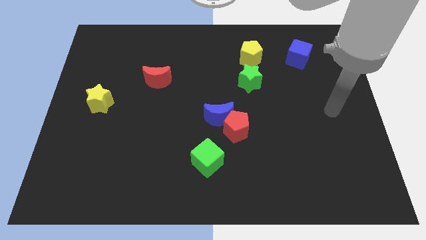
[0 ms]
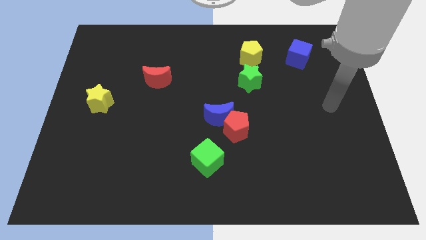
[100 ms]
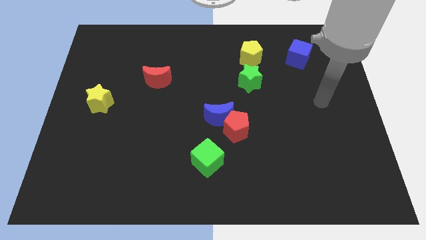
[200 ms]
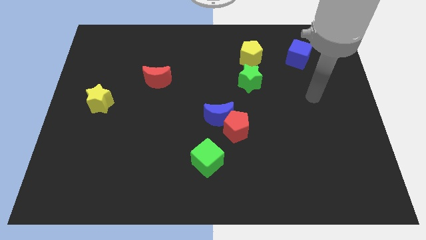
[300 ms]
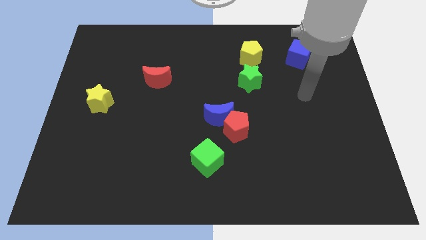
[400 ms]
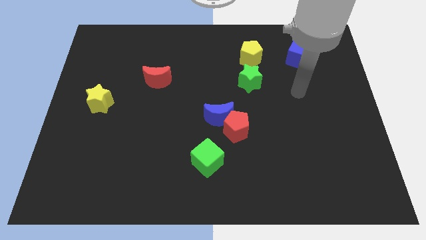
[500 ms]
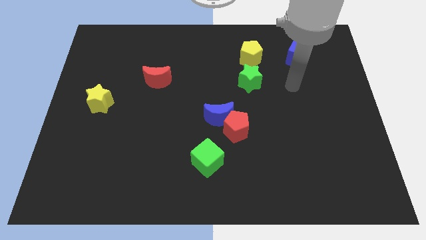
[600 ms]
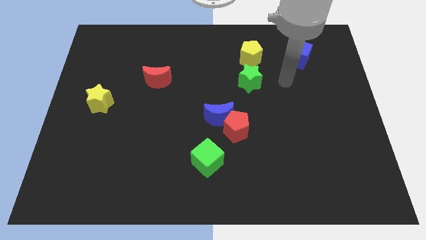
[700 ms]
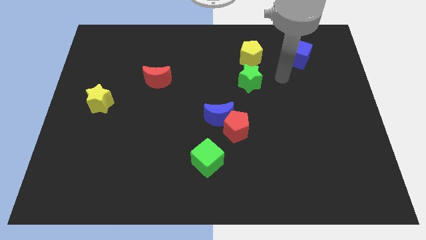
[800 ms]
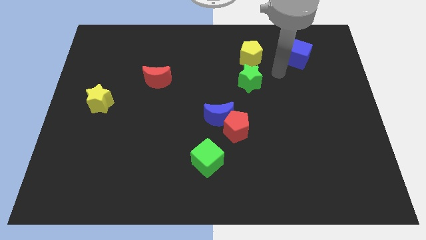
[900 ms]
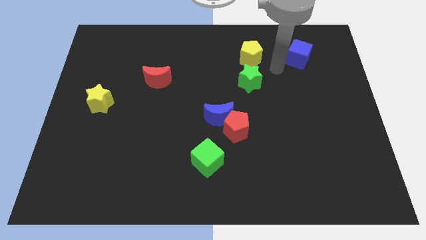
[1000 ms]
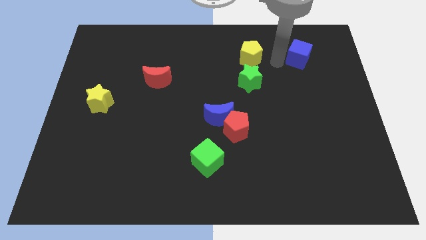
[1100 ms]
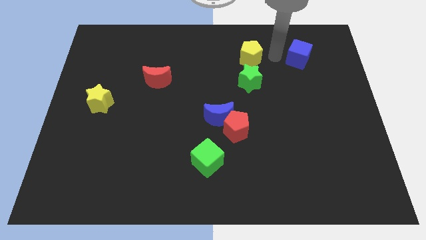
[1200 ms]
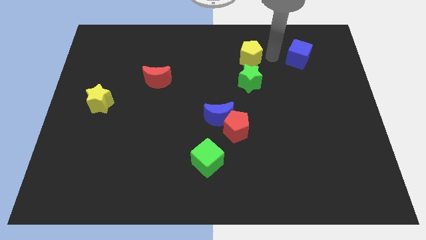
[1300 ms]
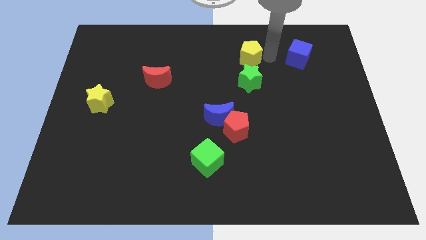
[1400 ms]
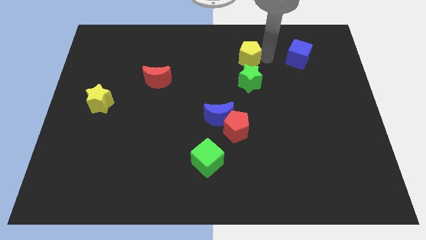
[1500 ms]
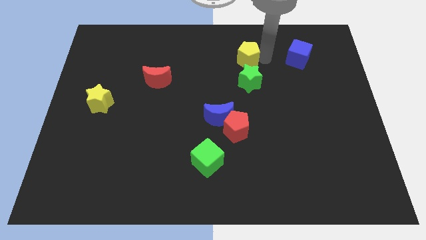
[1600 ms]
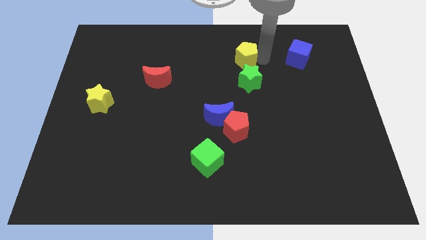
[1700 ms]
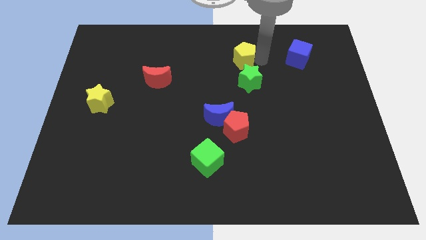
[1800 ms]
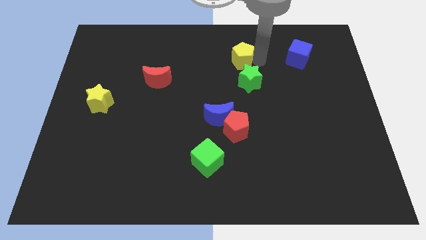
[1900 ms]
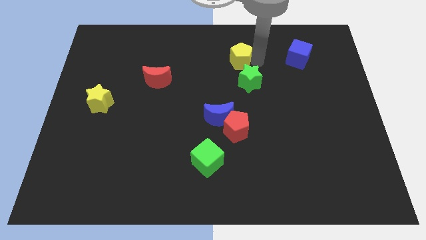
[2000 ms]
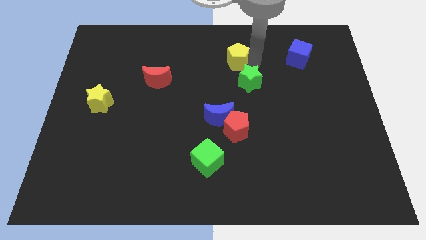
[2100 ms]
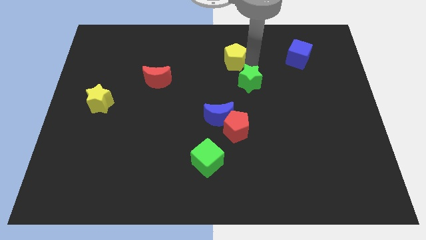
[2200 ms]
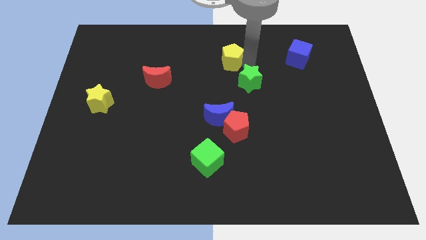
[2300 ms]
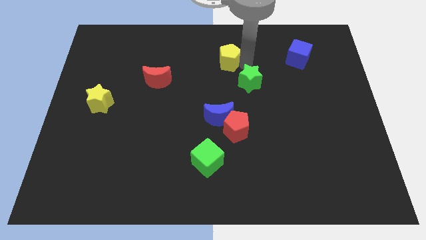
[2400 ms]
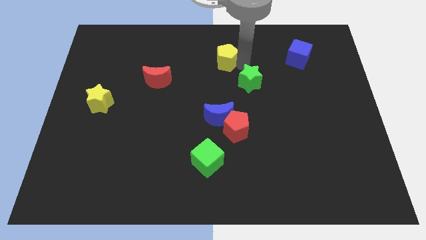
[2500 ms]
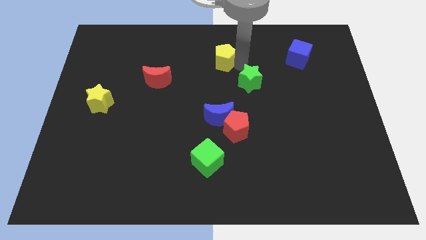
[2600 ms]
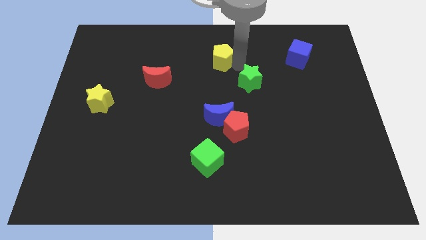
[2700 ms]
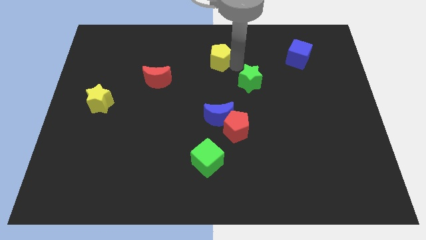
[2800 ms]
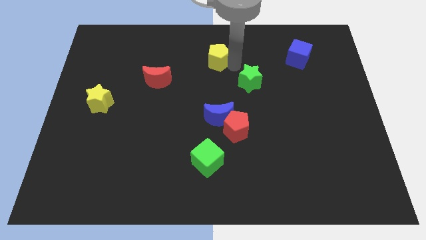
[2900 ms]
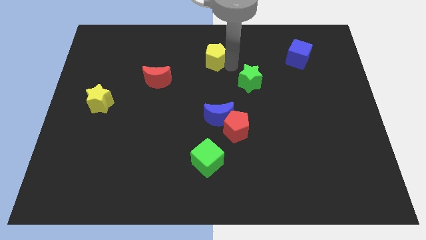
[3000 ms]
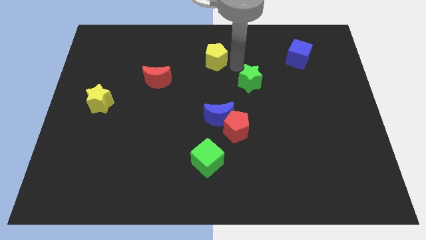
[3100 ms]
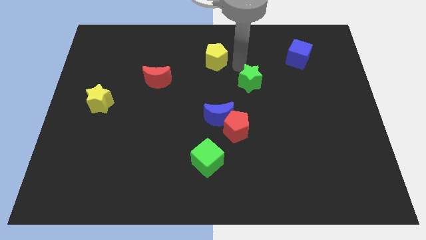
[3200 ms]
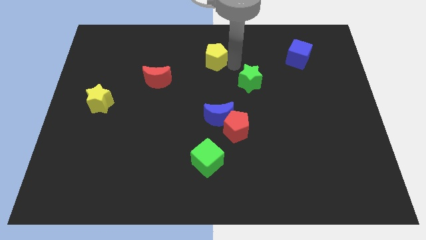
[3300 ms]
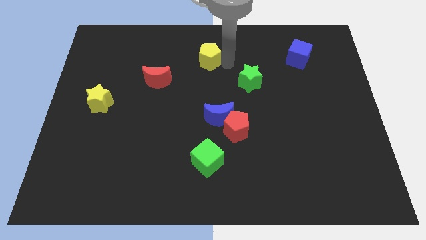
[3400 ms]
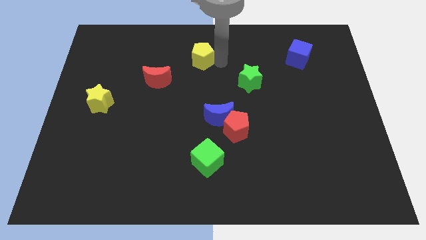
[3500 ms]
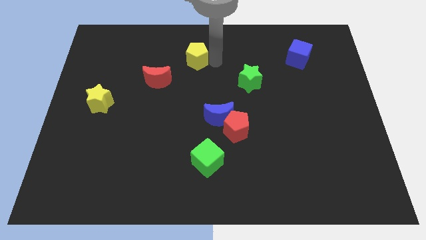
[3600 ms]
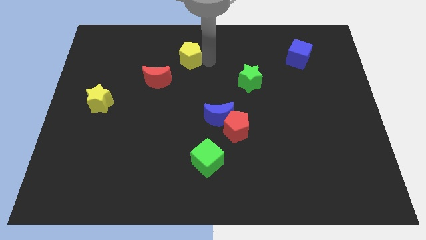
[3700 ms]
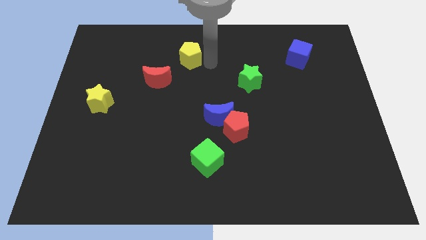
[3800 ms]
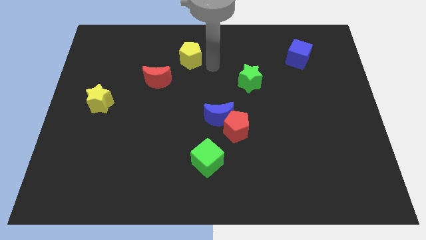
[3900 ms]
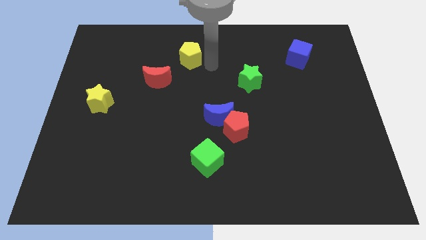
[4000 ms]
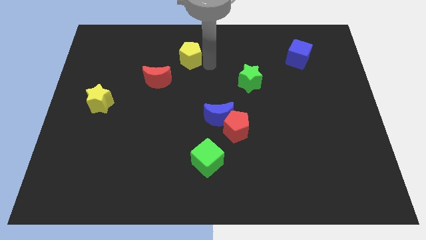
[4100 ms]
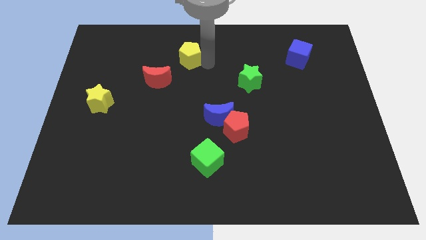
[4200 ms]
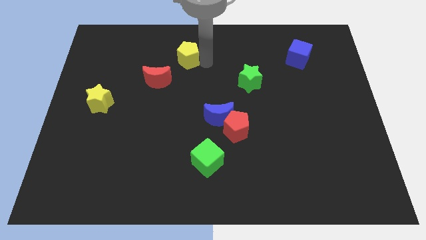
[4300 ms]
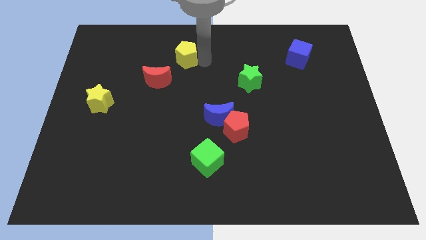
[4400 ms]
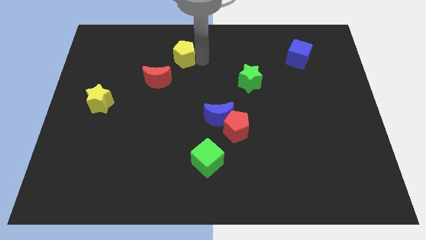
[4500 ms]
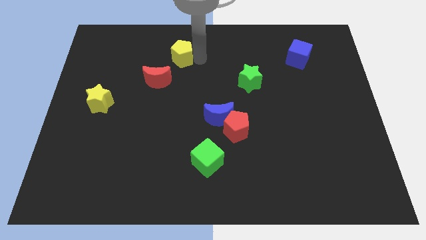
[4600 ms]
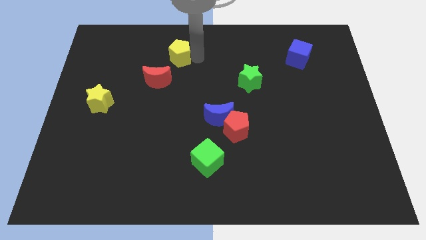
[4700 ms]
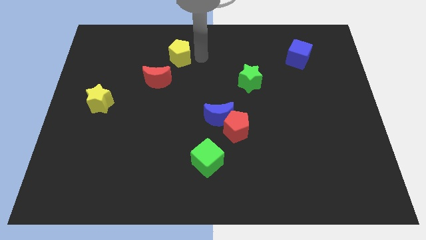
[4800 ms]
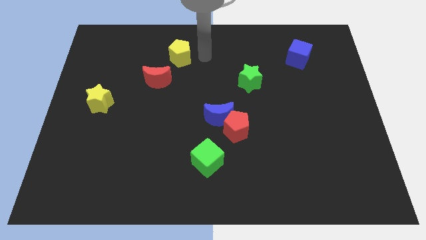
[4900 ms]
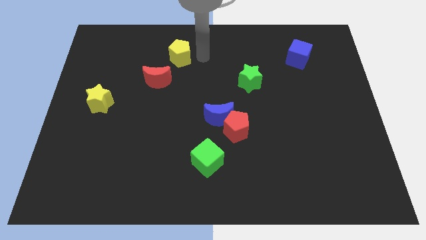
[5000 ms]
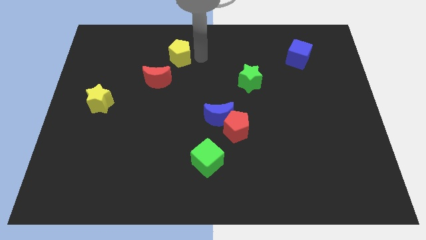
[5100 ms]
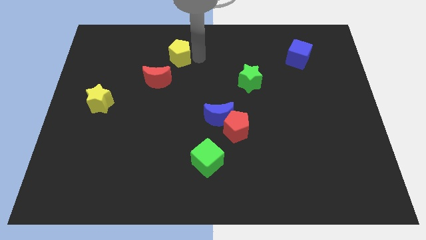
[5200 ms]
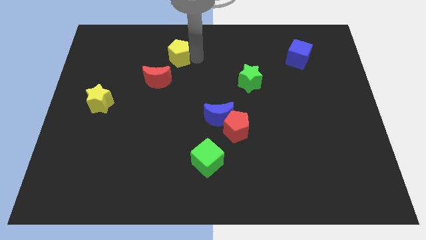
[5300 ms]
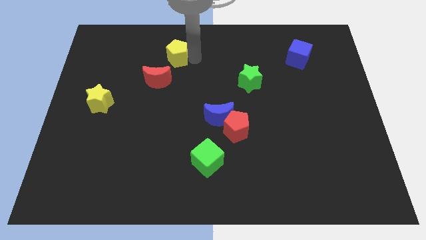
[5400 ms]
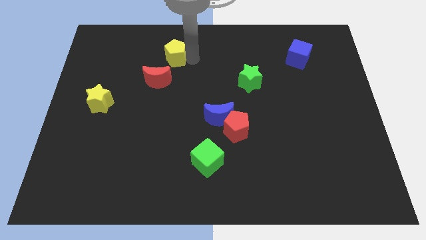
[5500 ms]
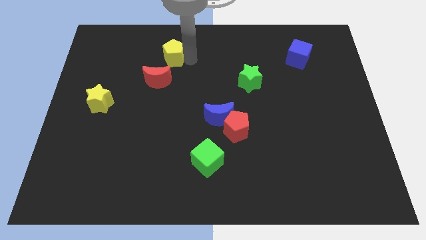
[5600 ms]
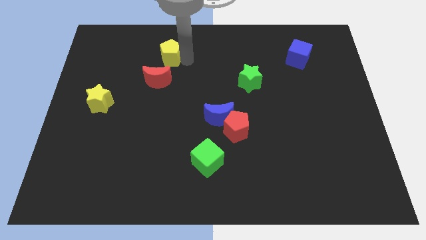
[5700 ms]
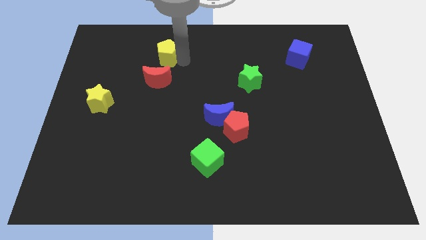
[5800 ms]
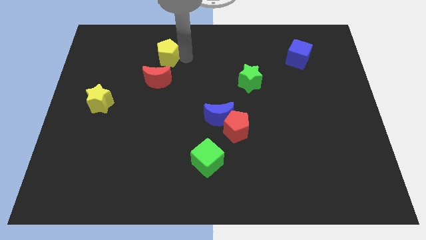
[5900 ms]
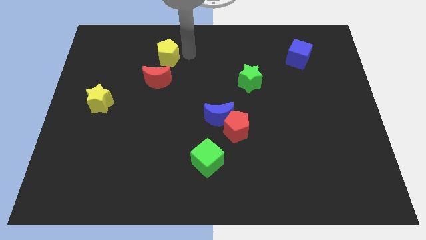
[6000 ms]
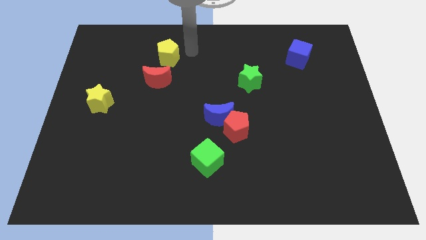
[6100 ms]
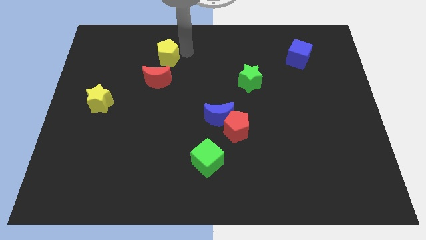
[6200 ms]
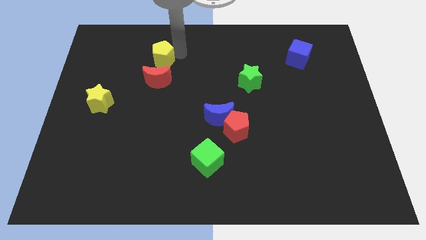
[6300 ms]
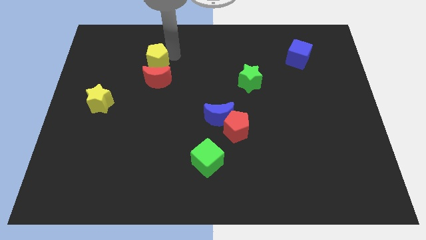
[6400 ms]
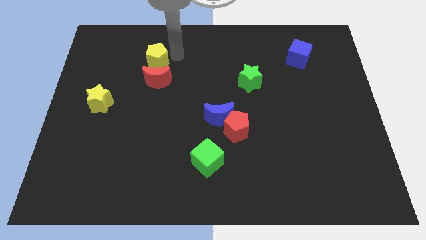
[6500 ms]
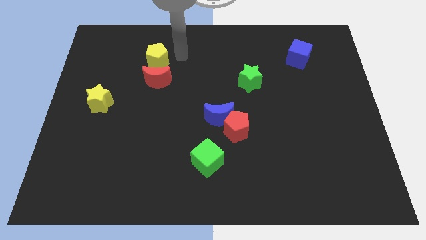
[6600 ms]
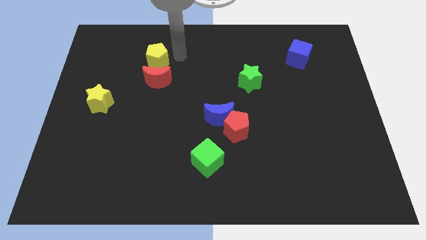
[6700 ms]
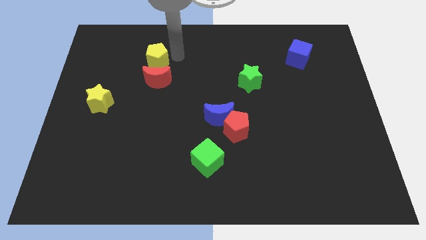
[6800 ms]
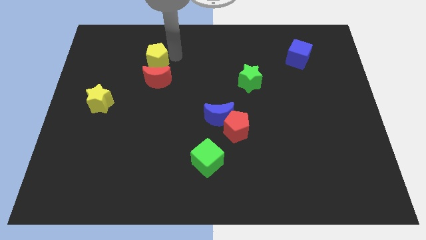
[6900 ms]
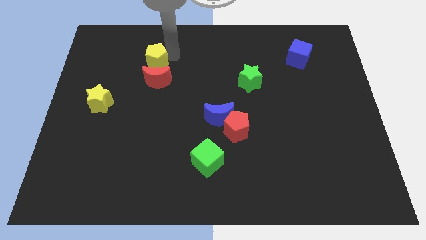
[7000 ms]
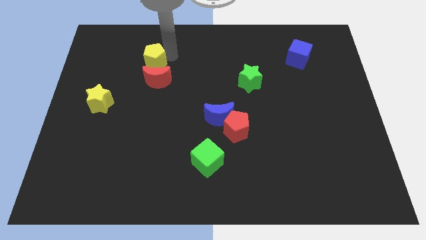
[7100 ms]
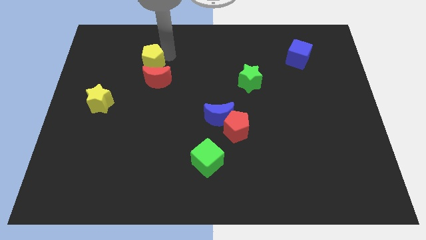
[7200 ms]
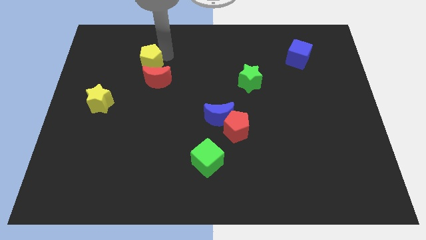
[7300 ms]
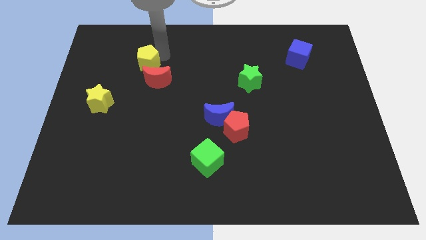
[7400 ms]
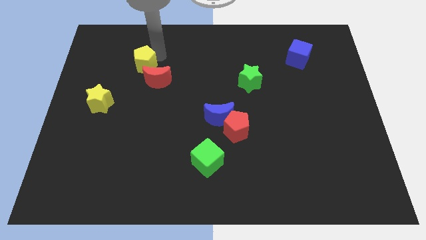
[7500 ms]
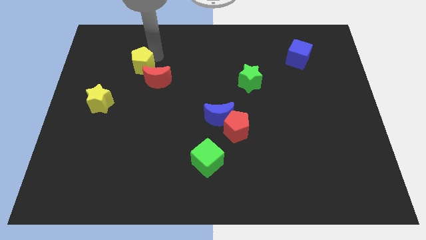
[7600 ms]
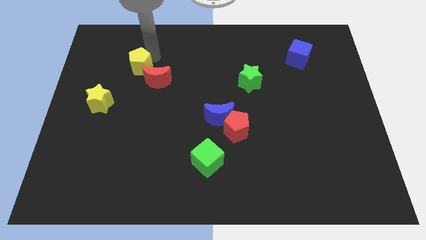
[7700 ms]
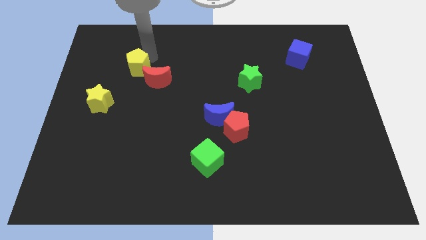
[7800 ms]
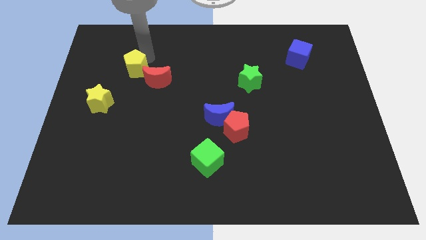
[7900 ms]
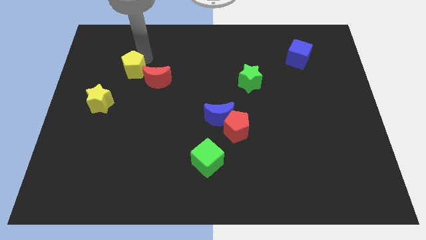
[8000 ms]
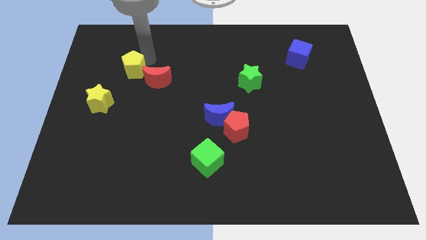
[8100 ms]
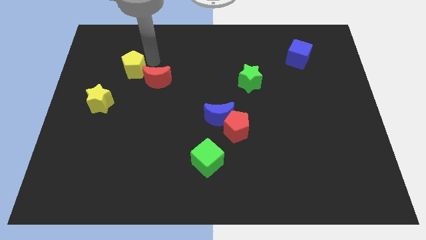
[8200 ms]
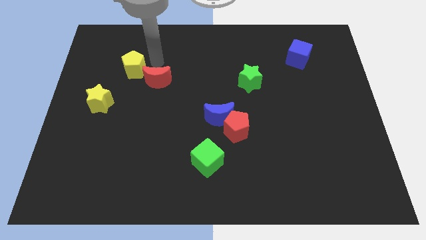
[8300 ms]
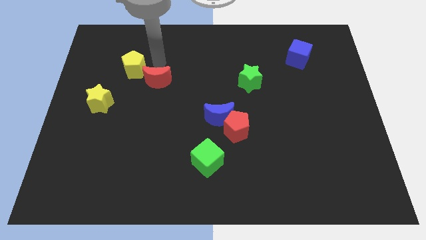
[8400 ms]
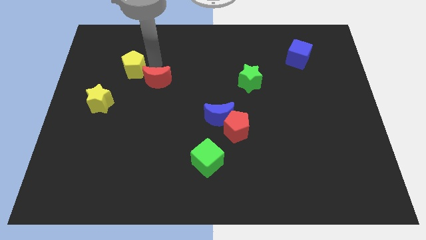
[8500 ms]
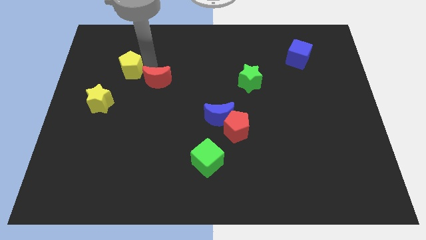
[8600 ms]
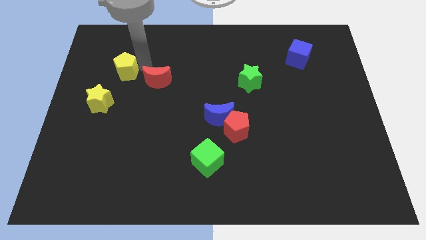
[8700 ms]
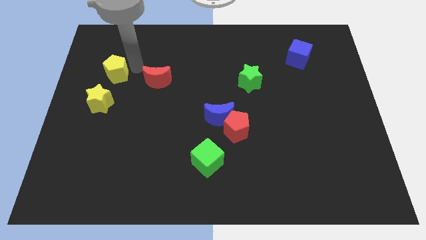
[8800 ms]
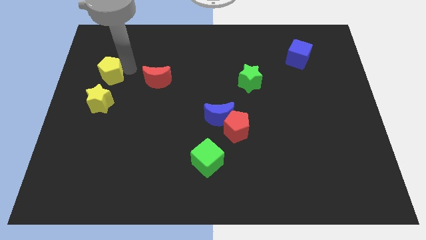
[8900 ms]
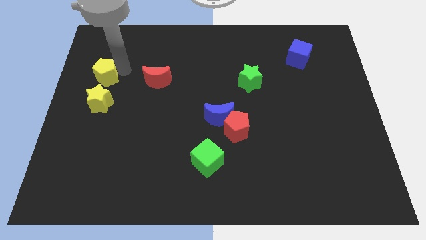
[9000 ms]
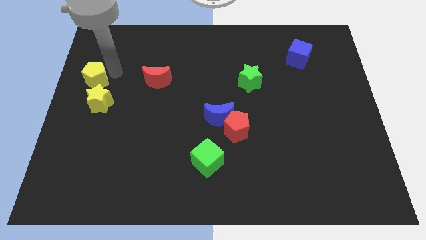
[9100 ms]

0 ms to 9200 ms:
move the yellow pentagon to the left side
